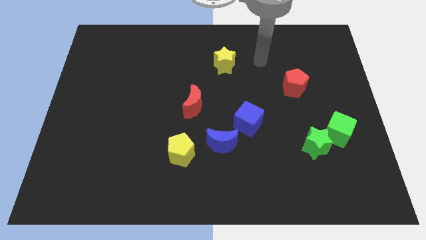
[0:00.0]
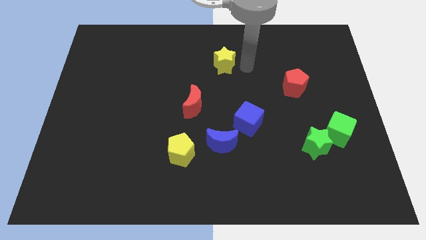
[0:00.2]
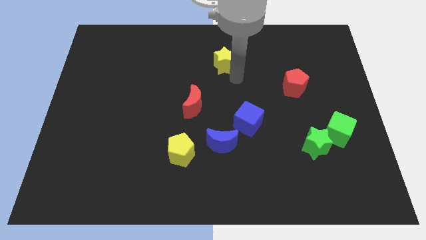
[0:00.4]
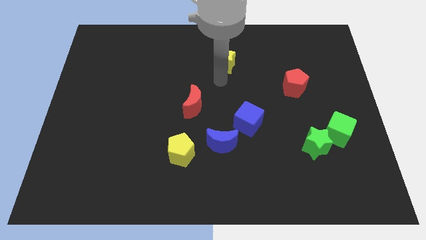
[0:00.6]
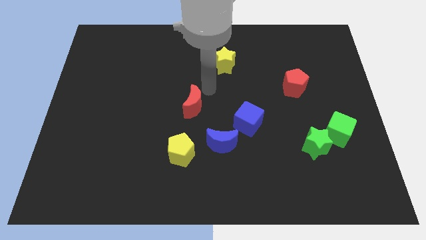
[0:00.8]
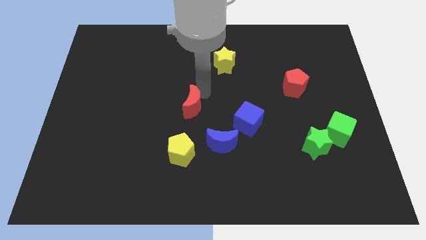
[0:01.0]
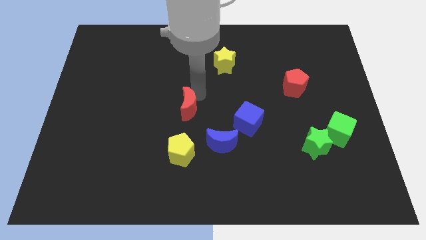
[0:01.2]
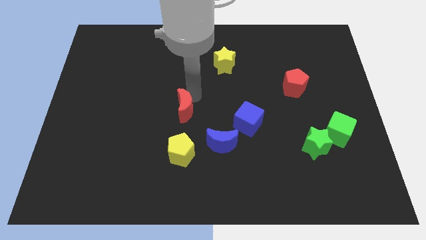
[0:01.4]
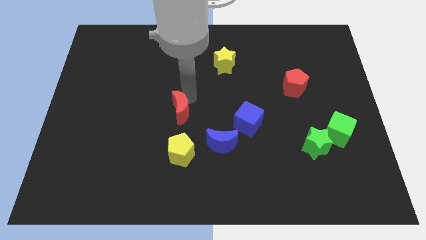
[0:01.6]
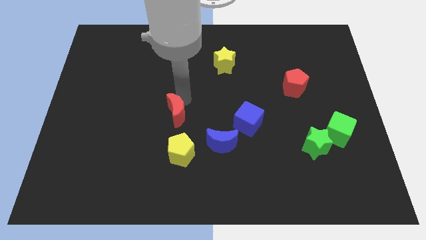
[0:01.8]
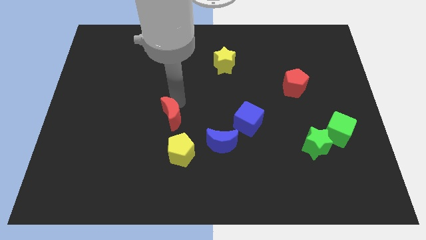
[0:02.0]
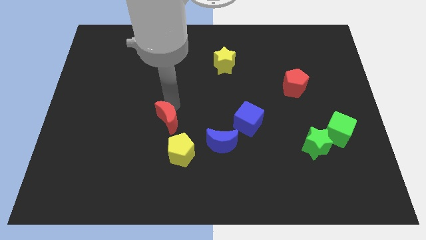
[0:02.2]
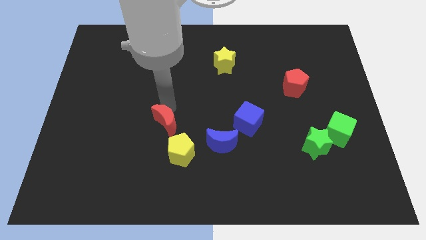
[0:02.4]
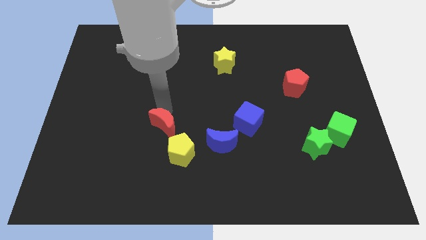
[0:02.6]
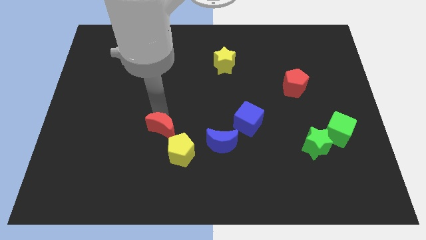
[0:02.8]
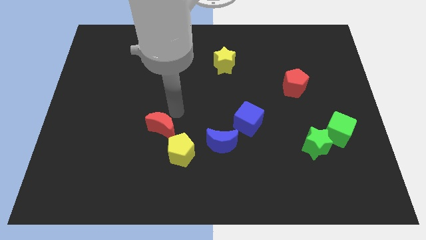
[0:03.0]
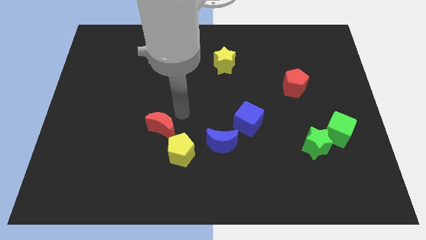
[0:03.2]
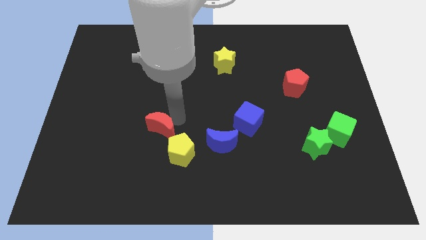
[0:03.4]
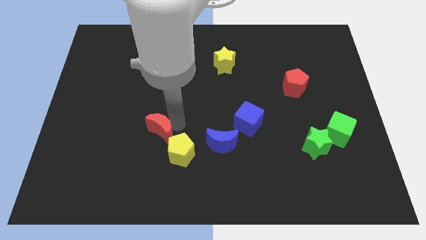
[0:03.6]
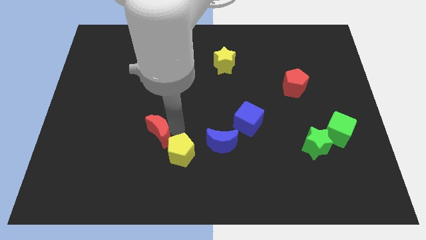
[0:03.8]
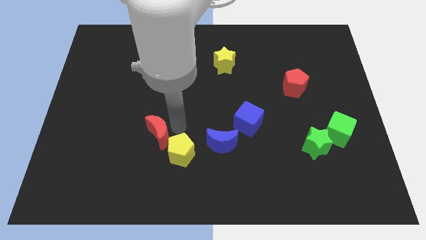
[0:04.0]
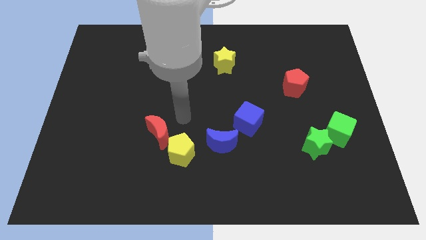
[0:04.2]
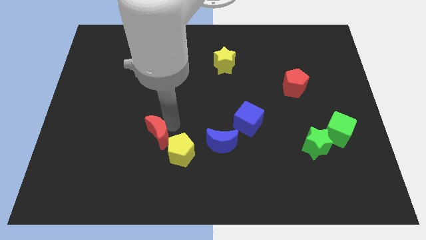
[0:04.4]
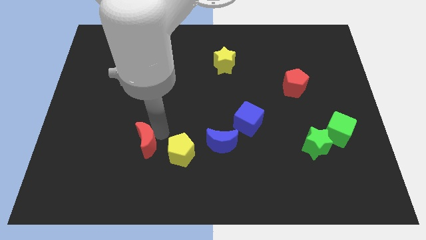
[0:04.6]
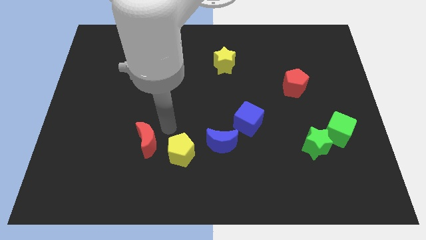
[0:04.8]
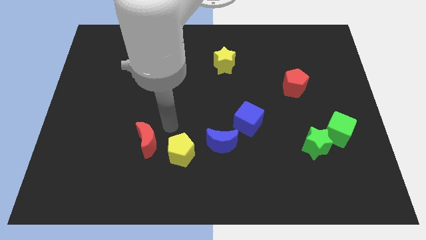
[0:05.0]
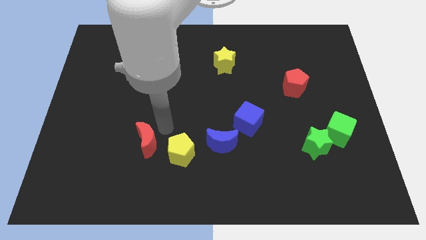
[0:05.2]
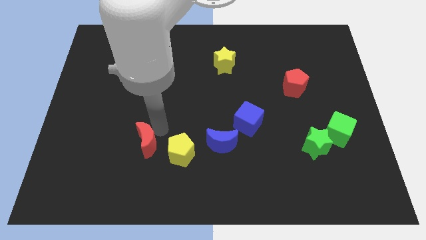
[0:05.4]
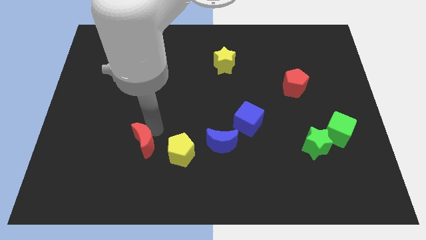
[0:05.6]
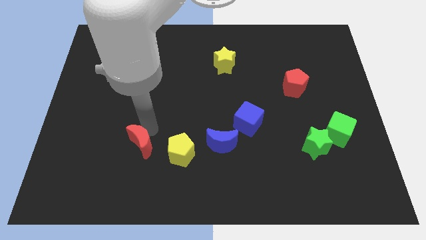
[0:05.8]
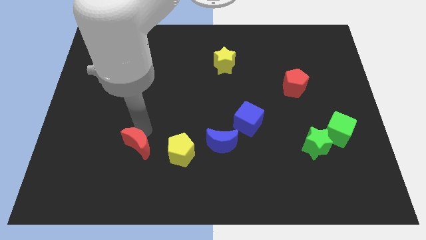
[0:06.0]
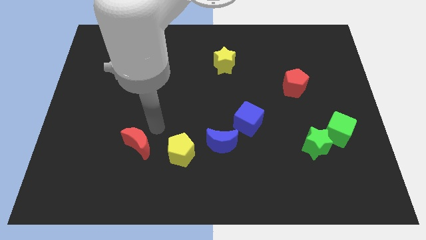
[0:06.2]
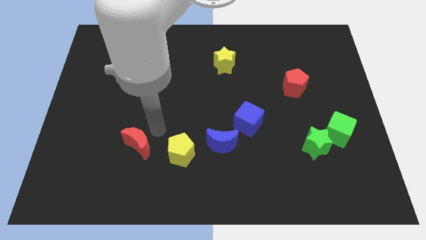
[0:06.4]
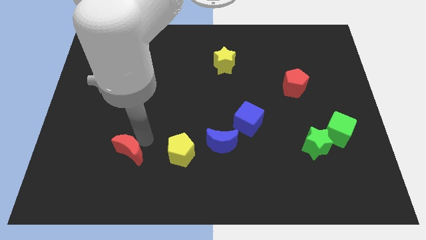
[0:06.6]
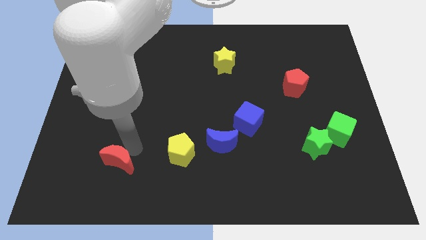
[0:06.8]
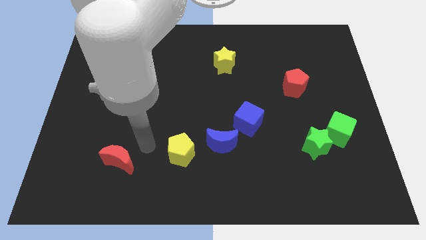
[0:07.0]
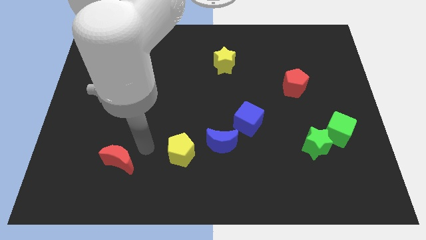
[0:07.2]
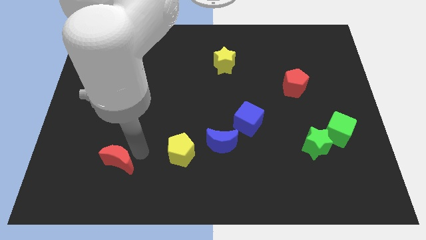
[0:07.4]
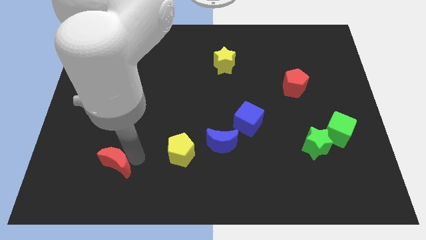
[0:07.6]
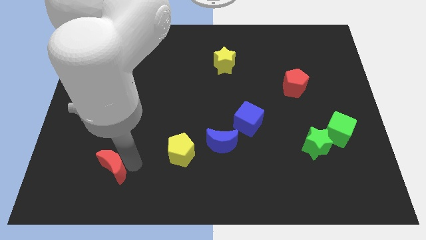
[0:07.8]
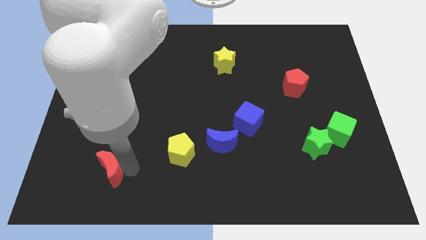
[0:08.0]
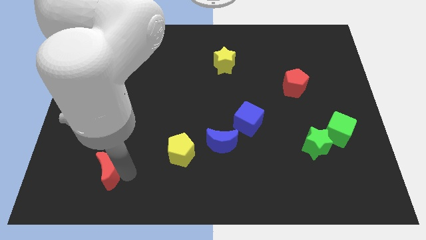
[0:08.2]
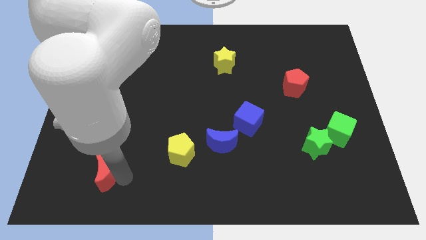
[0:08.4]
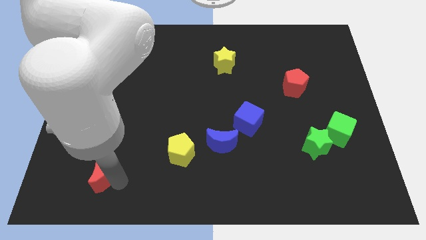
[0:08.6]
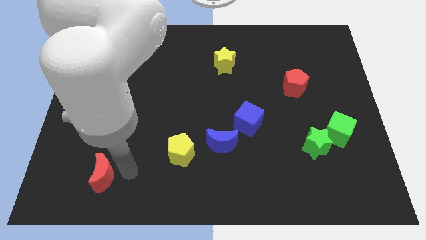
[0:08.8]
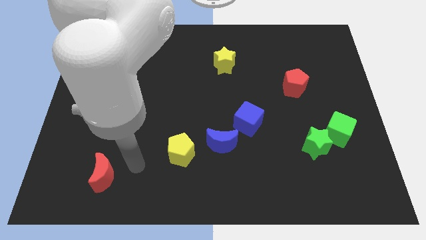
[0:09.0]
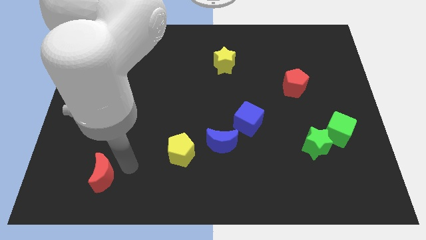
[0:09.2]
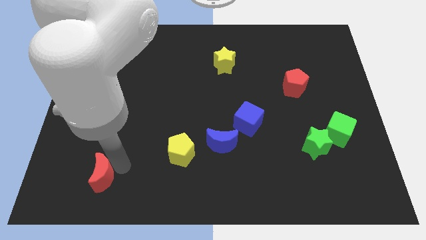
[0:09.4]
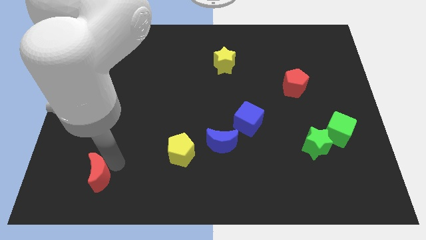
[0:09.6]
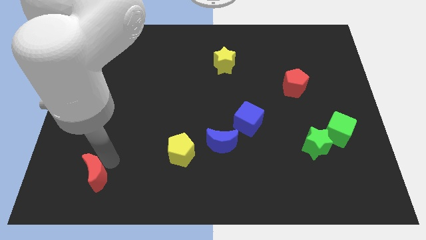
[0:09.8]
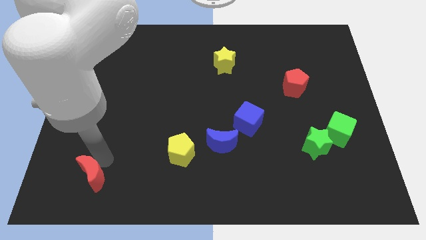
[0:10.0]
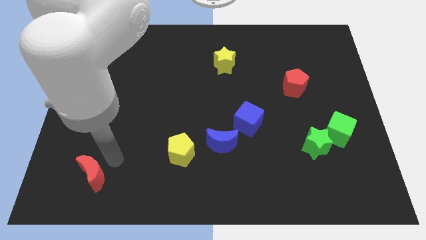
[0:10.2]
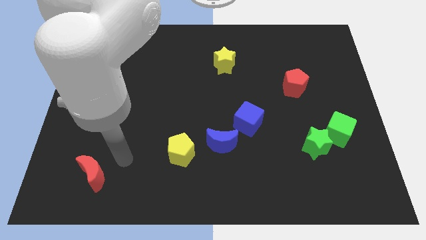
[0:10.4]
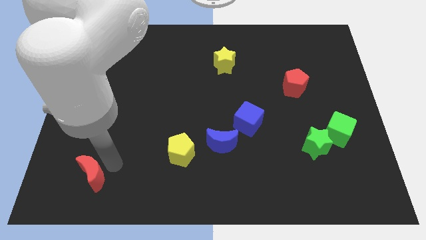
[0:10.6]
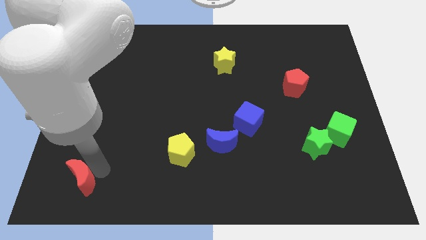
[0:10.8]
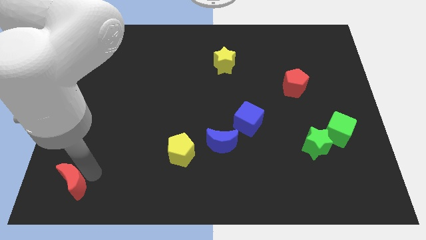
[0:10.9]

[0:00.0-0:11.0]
push the red moon to the bottom left

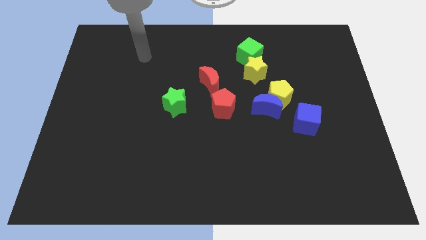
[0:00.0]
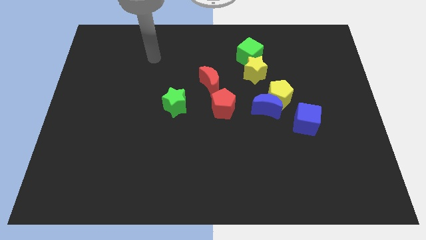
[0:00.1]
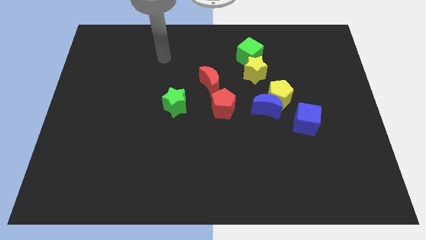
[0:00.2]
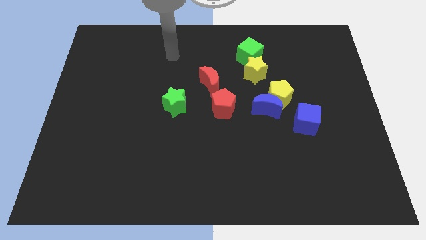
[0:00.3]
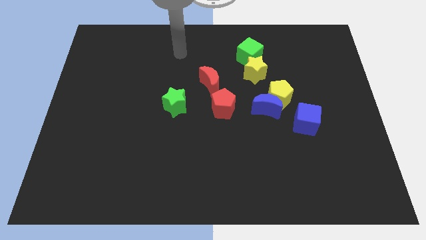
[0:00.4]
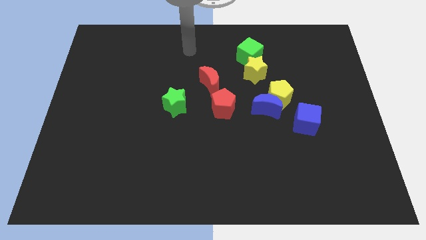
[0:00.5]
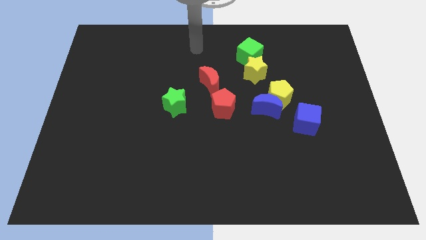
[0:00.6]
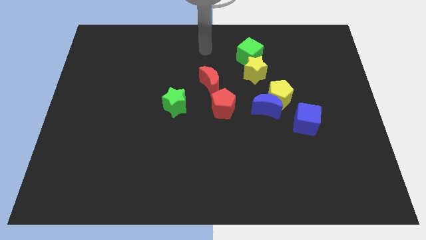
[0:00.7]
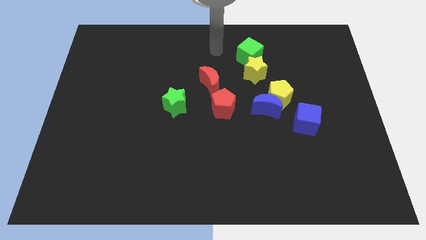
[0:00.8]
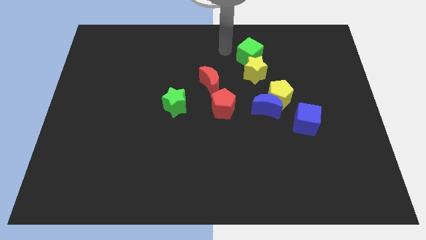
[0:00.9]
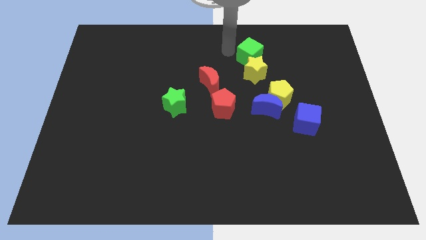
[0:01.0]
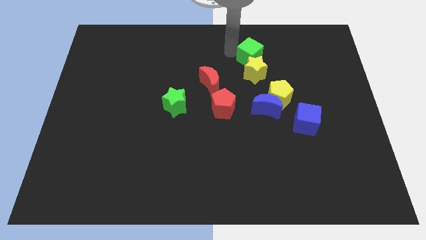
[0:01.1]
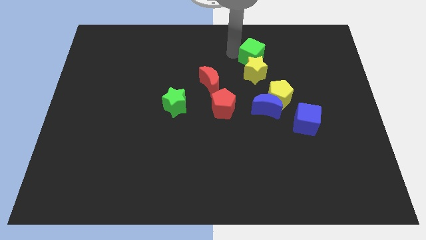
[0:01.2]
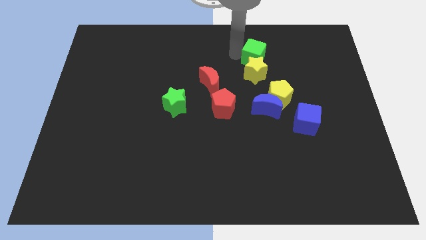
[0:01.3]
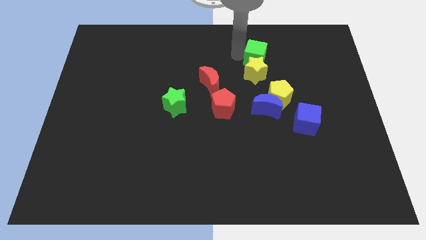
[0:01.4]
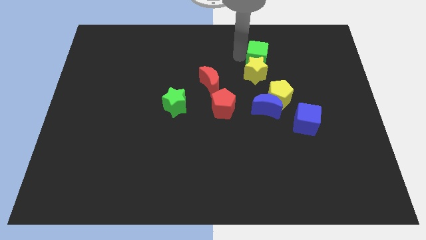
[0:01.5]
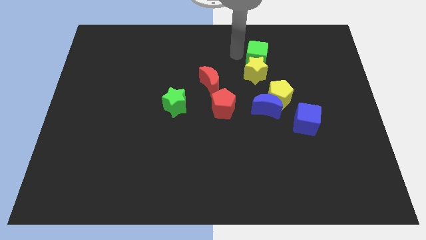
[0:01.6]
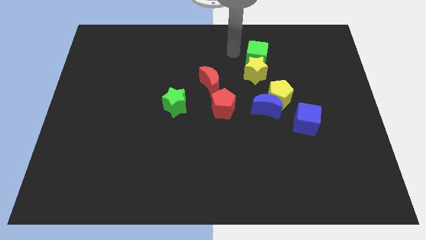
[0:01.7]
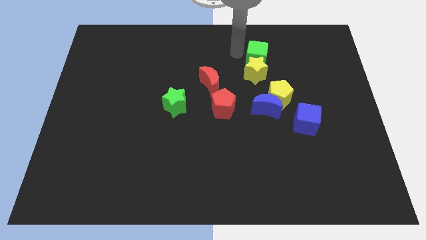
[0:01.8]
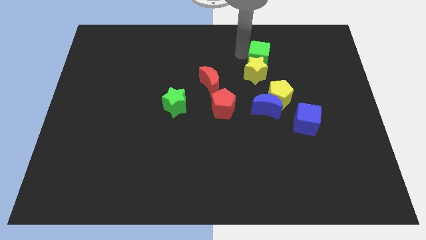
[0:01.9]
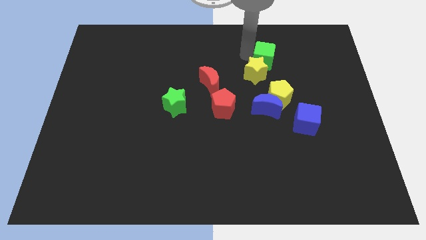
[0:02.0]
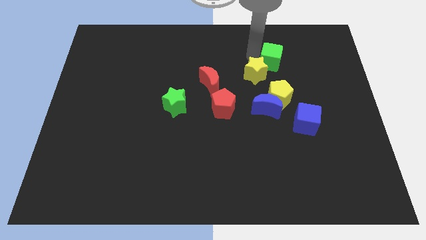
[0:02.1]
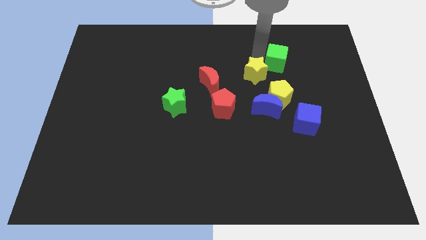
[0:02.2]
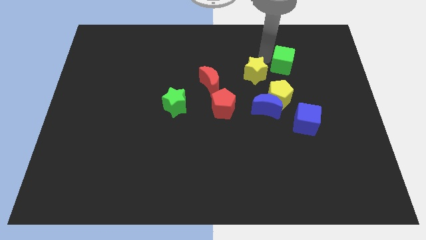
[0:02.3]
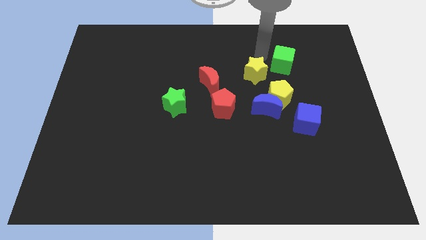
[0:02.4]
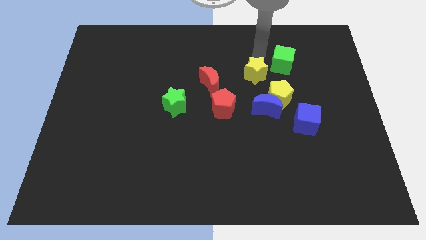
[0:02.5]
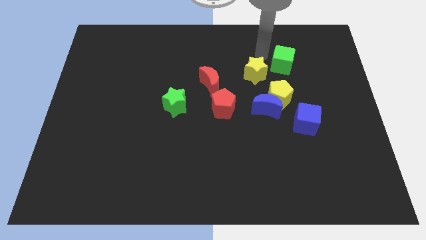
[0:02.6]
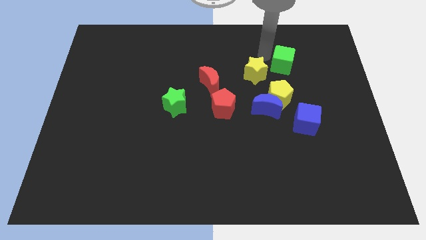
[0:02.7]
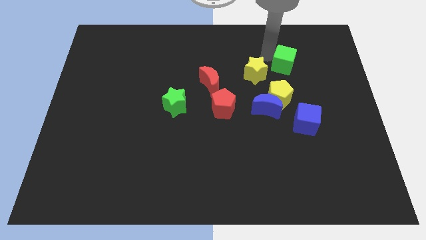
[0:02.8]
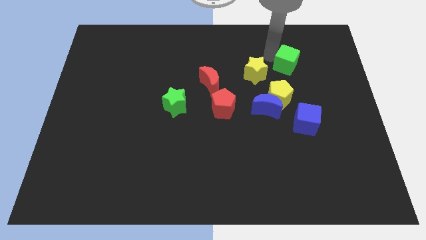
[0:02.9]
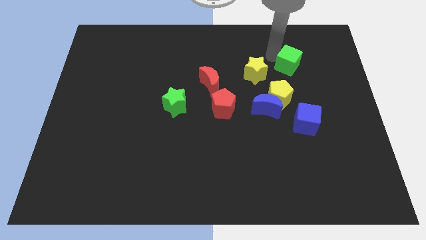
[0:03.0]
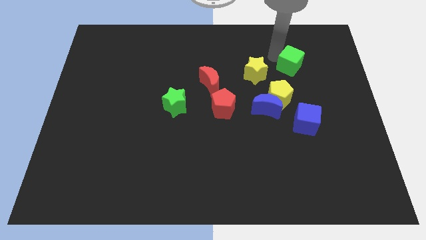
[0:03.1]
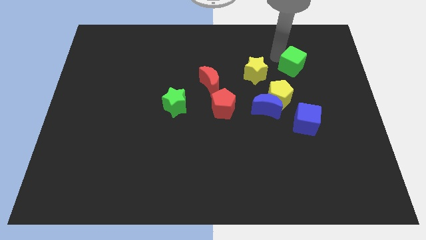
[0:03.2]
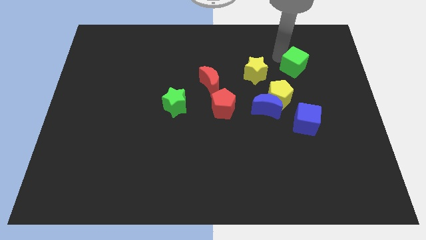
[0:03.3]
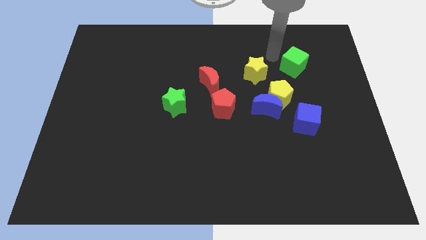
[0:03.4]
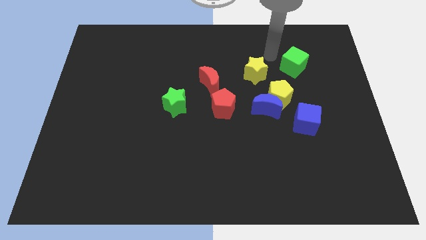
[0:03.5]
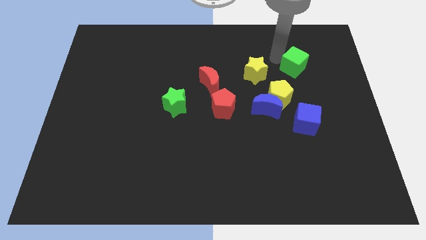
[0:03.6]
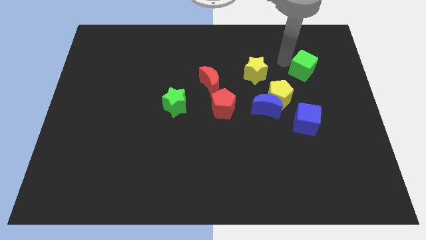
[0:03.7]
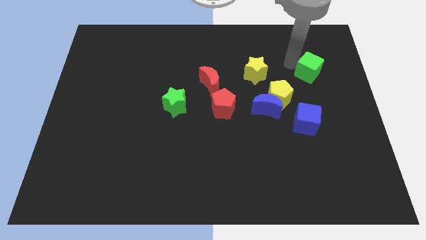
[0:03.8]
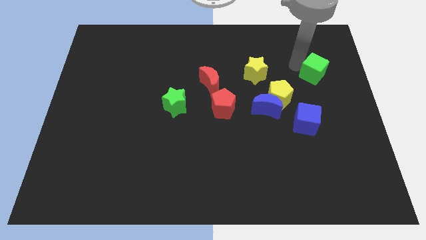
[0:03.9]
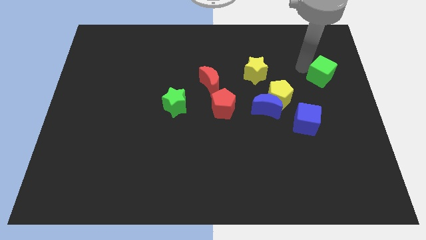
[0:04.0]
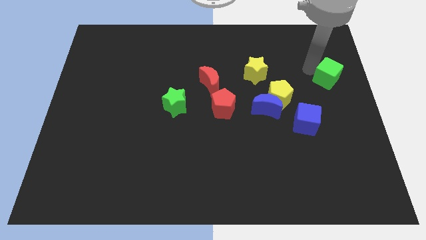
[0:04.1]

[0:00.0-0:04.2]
move the green cube to the center right
